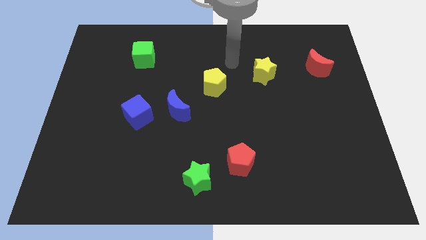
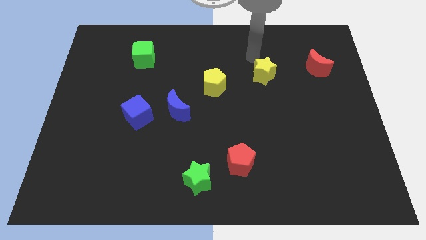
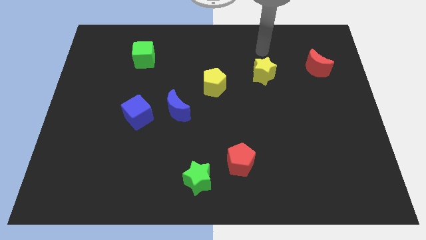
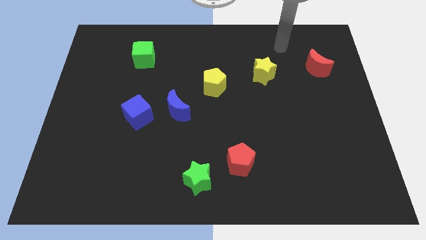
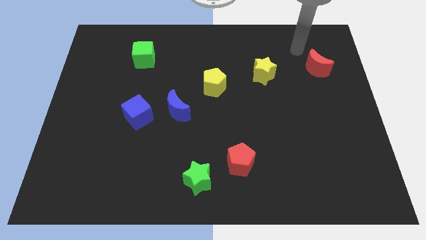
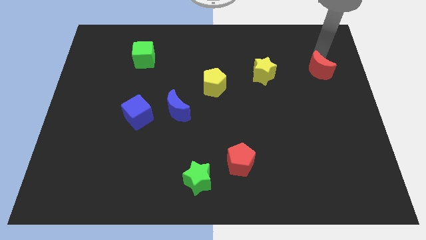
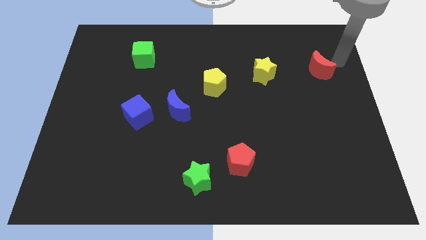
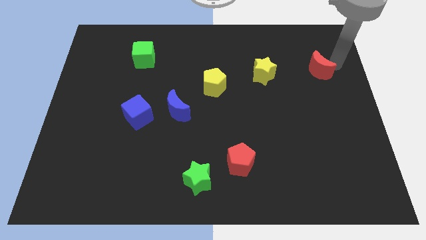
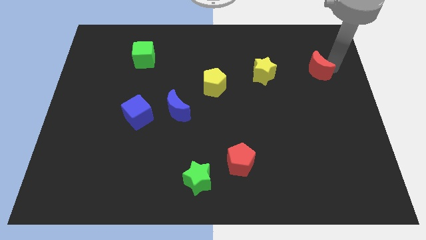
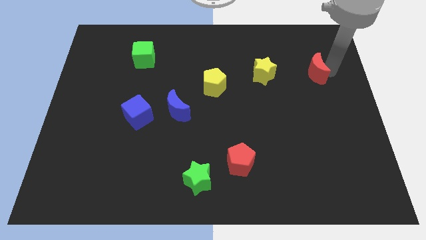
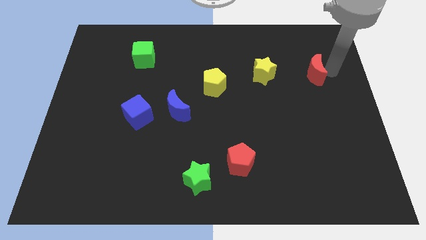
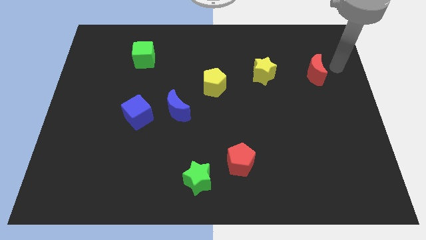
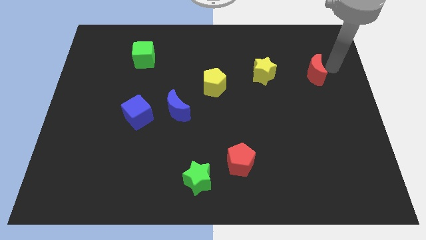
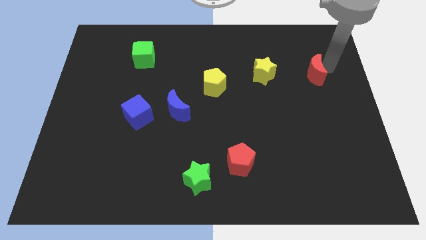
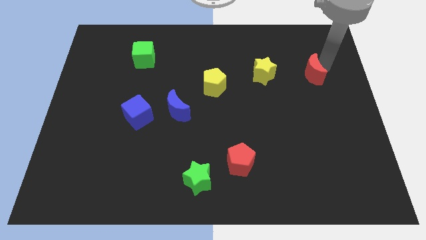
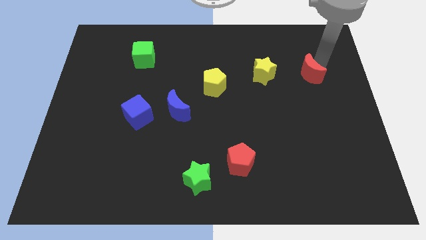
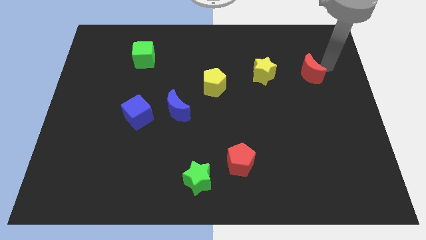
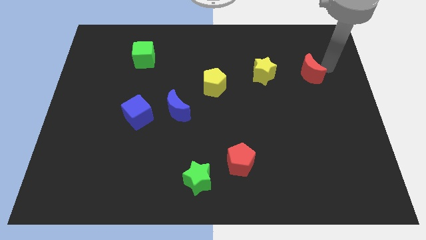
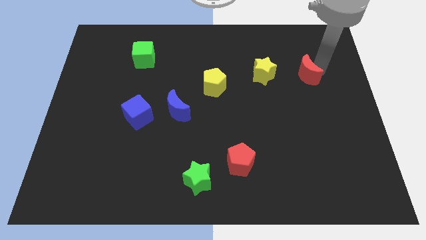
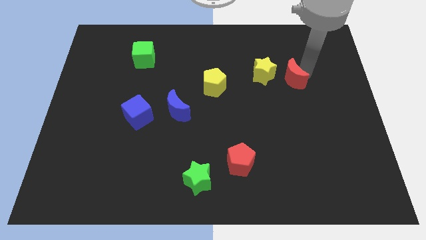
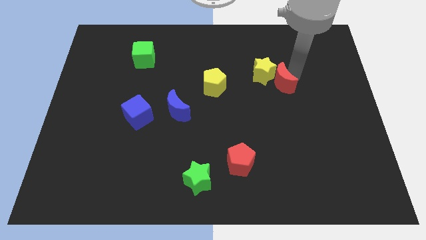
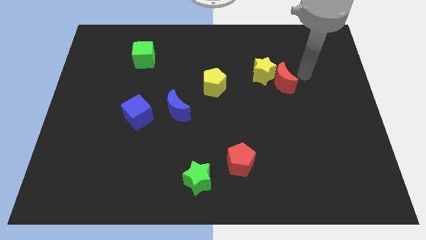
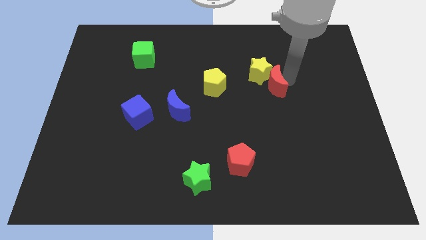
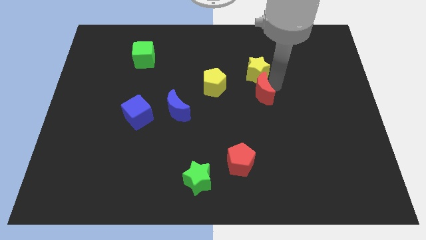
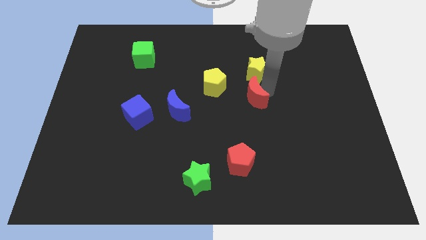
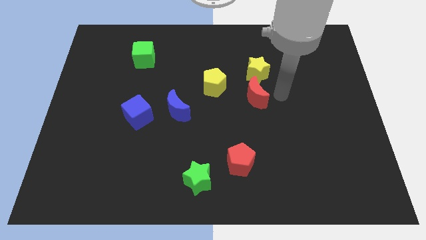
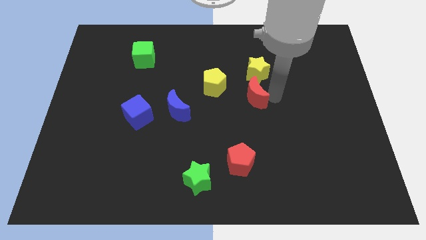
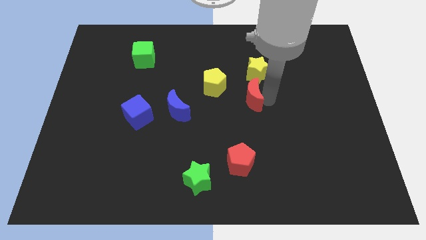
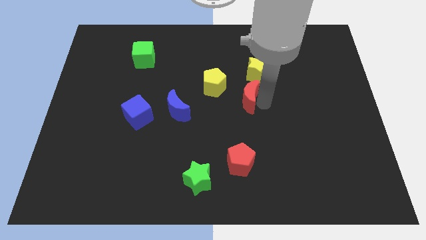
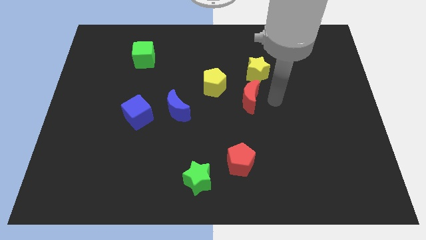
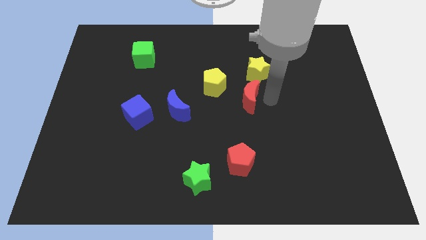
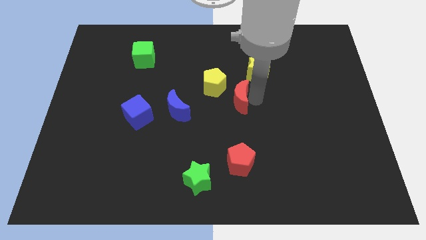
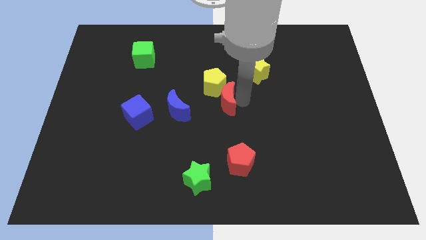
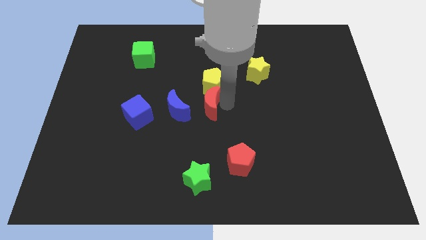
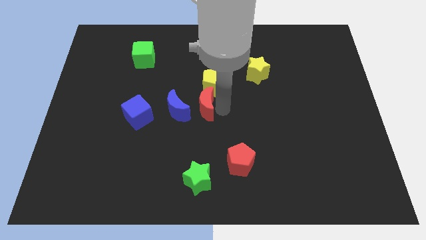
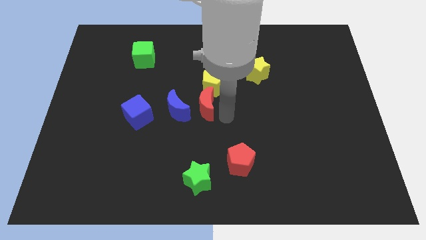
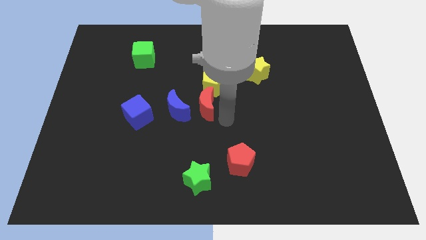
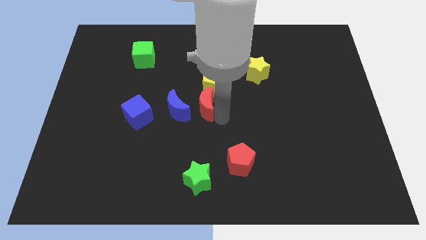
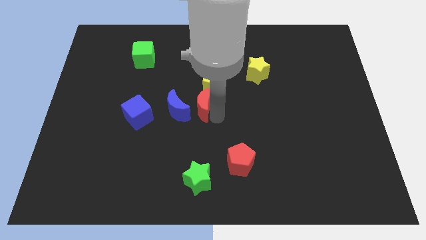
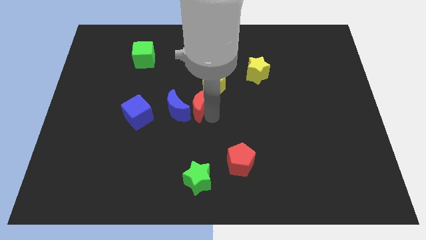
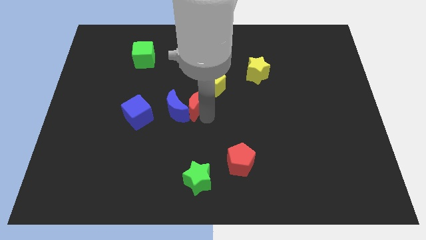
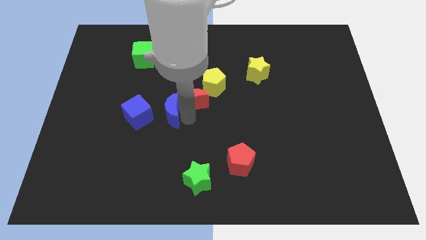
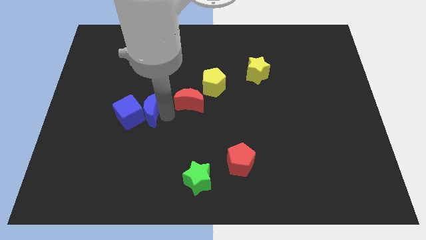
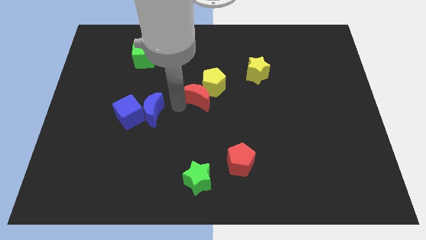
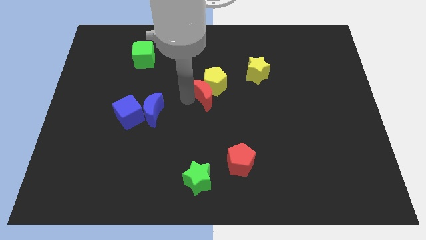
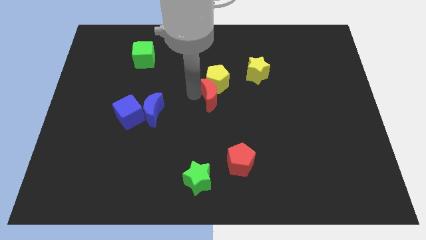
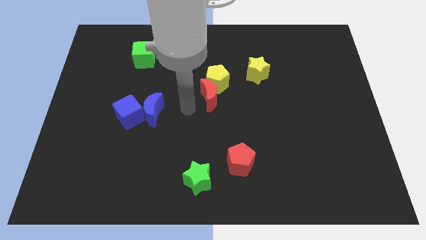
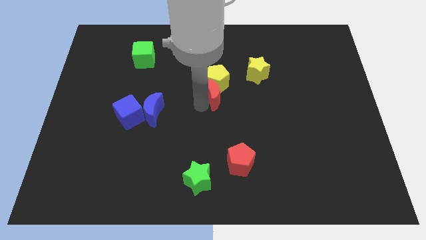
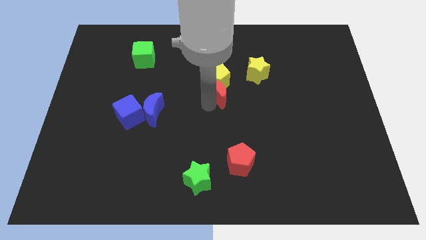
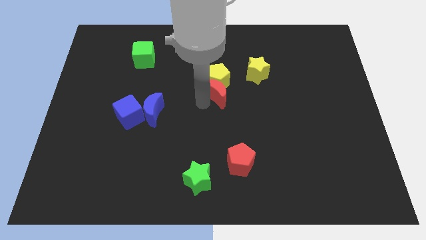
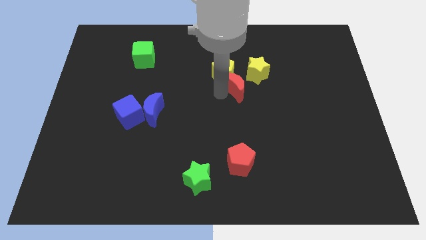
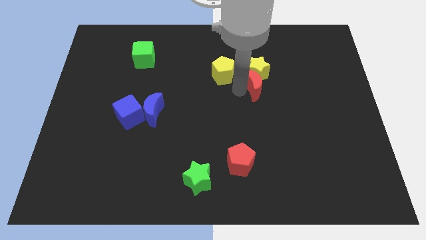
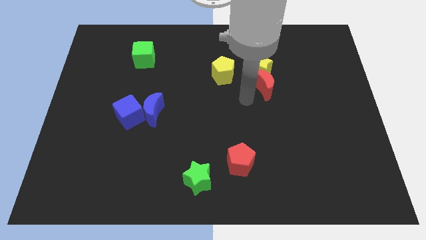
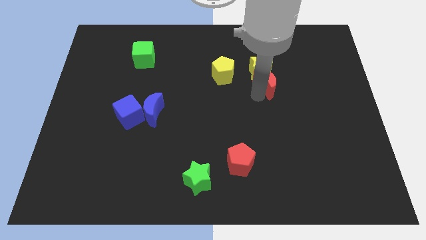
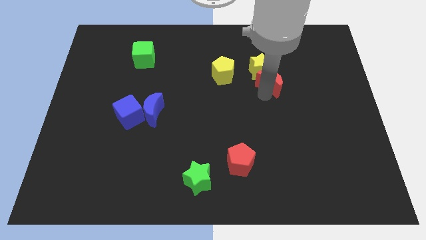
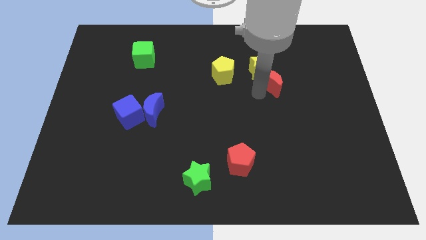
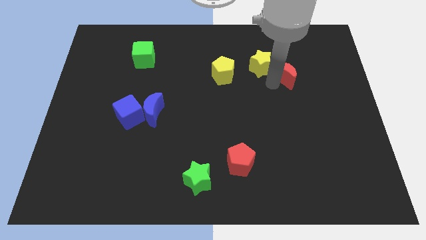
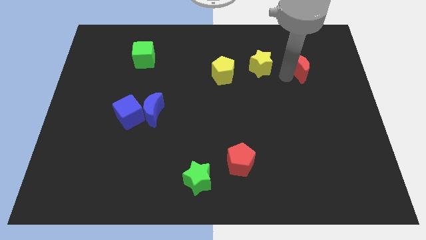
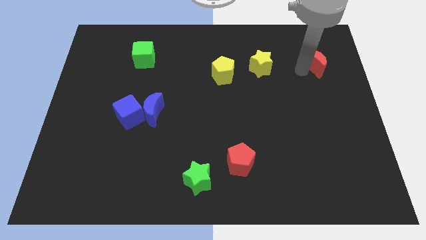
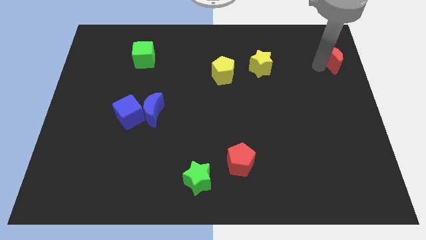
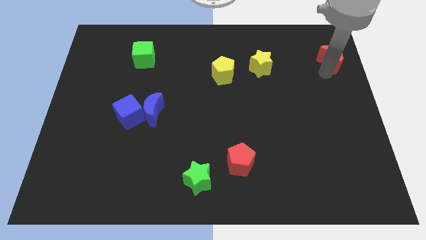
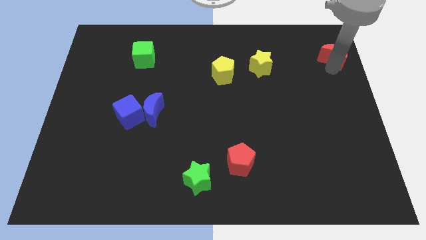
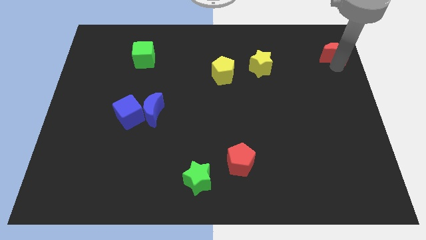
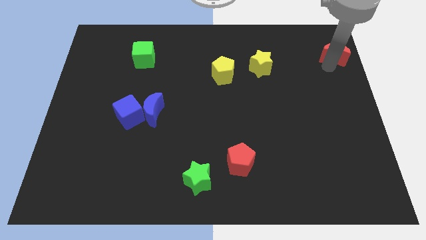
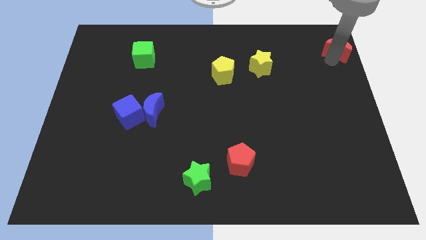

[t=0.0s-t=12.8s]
push the red moon to the top right corner

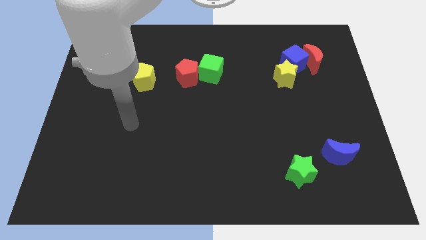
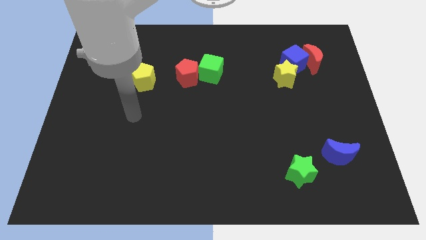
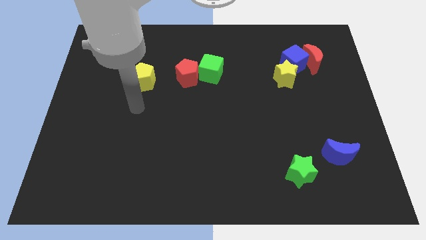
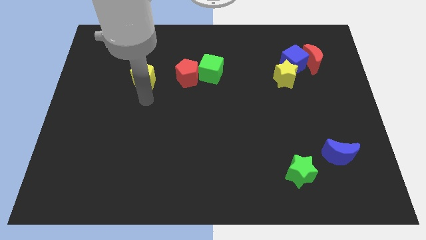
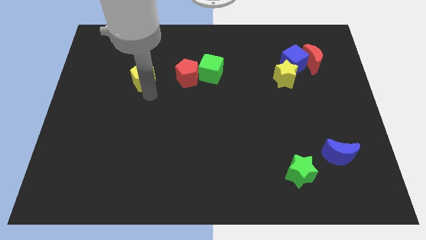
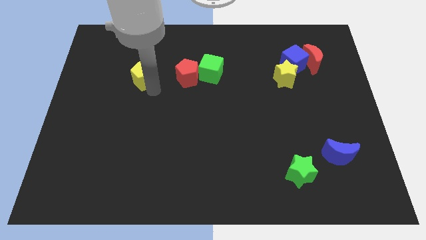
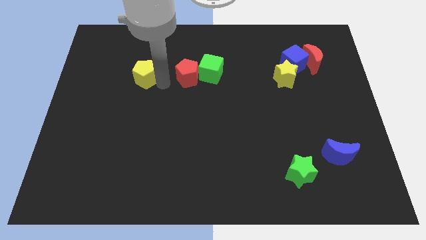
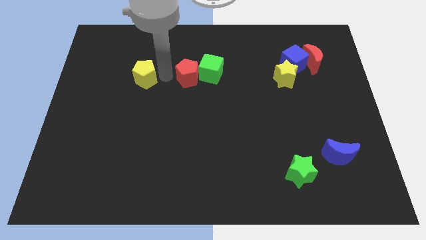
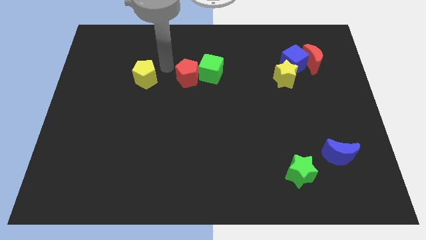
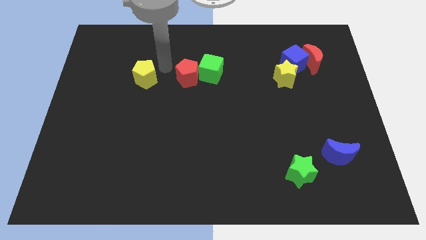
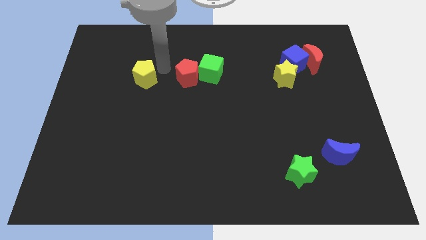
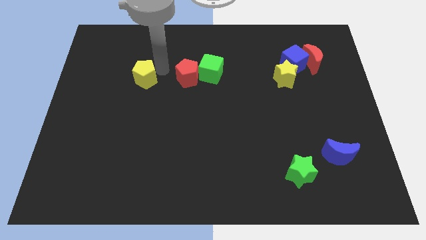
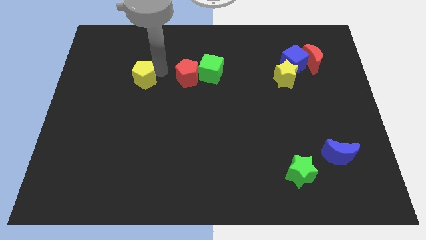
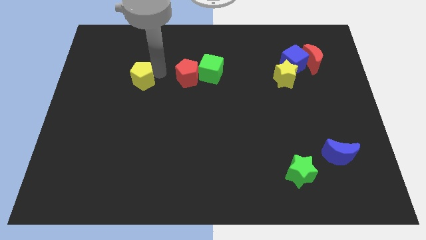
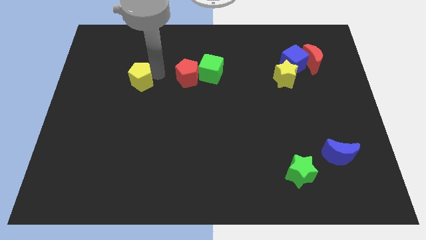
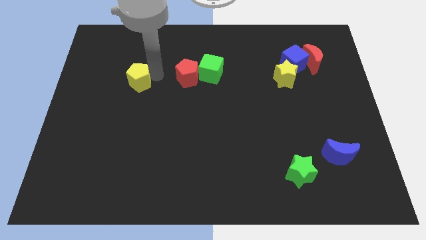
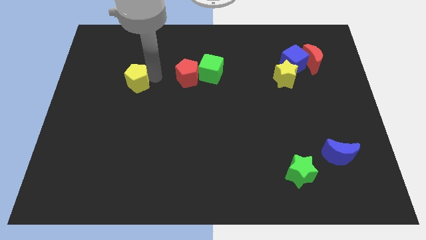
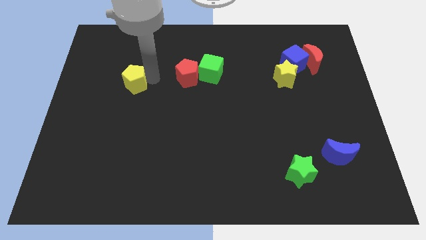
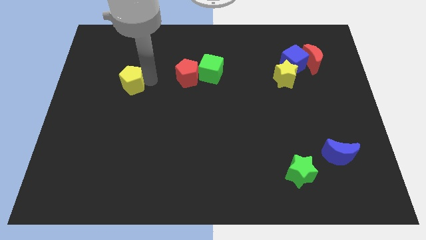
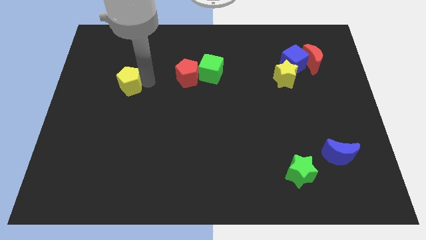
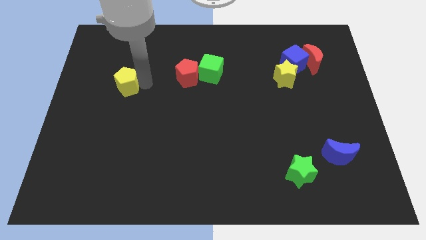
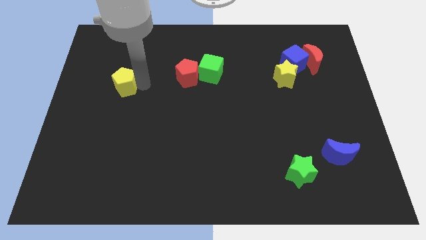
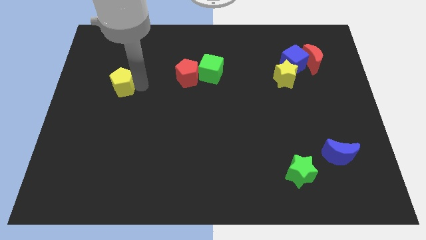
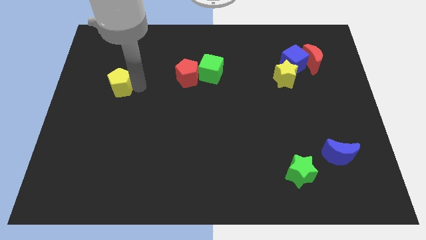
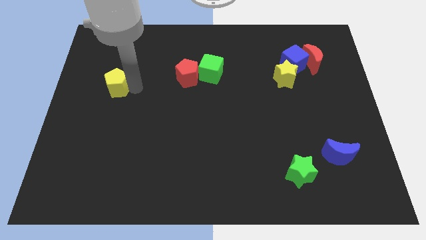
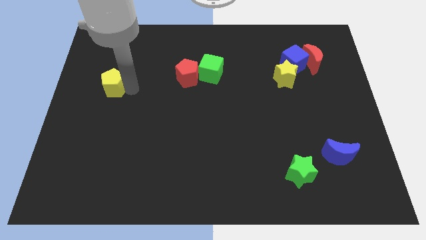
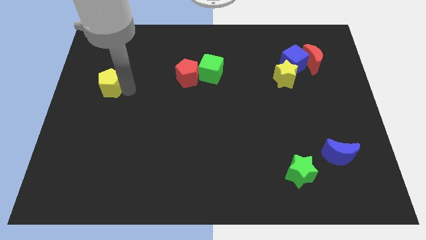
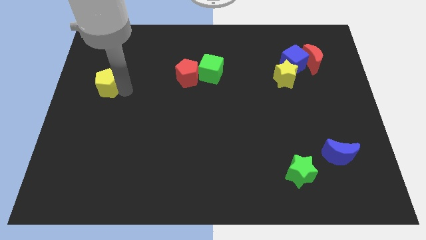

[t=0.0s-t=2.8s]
move the yellow pentagon to the left side
